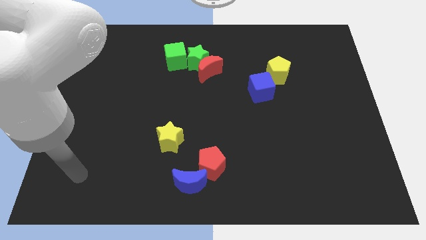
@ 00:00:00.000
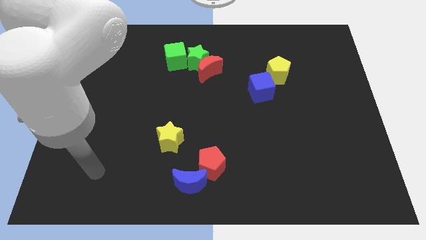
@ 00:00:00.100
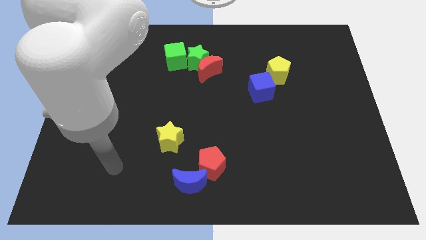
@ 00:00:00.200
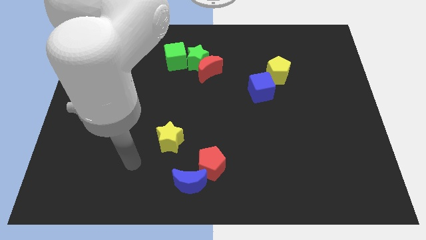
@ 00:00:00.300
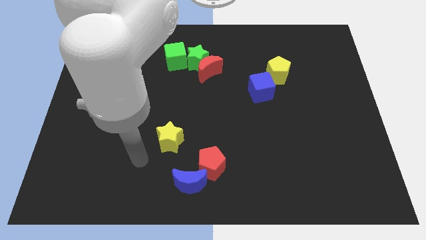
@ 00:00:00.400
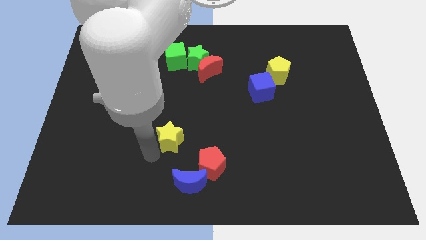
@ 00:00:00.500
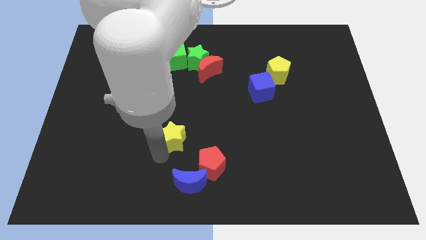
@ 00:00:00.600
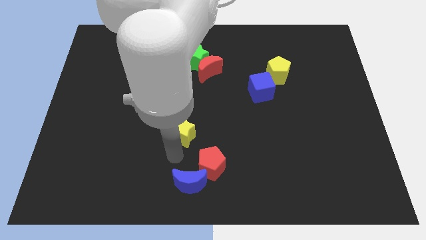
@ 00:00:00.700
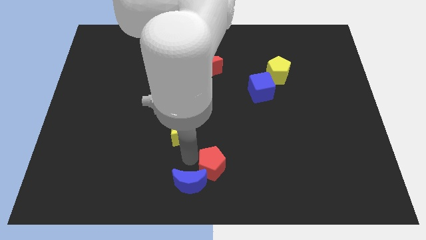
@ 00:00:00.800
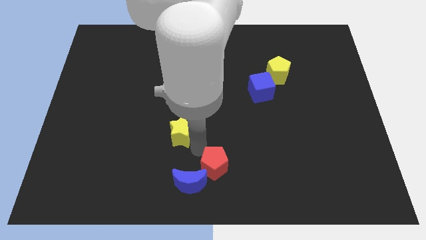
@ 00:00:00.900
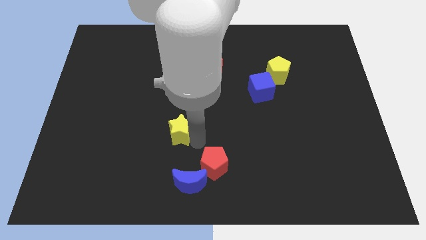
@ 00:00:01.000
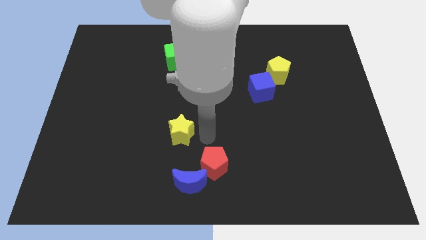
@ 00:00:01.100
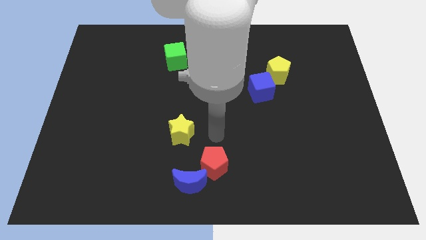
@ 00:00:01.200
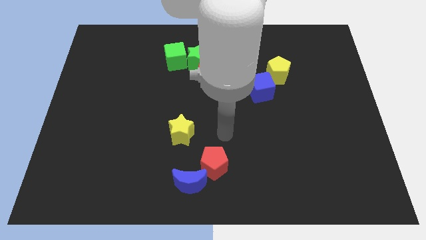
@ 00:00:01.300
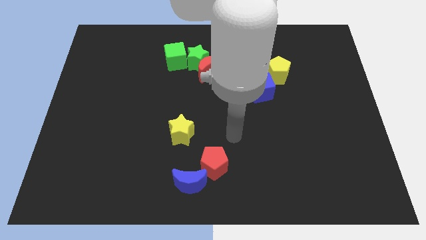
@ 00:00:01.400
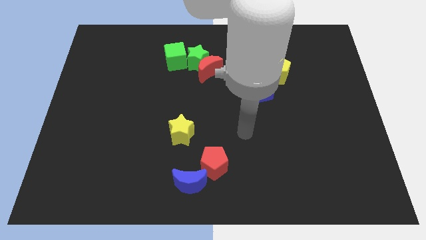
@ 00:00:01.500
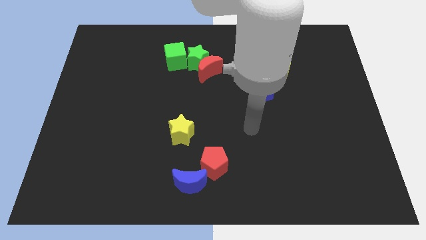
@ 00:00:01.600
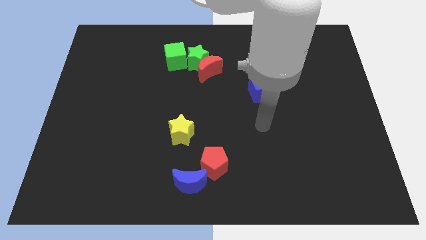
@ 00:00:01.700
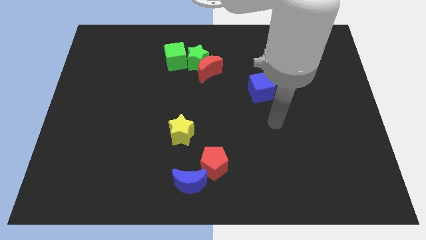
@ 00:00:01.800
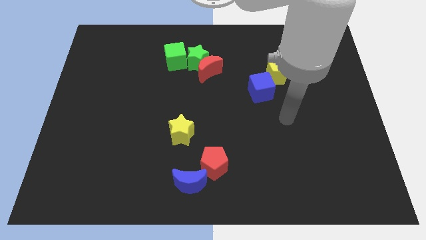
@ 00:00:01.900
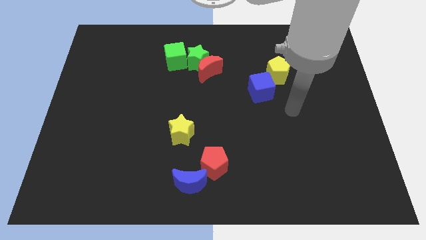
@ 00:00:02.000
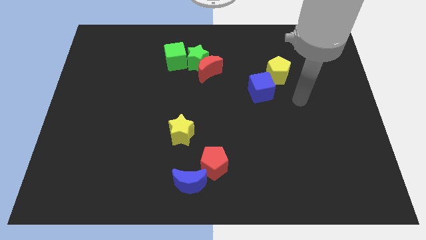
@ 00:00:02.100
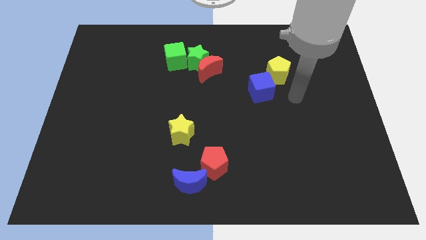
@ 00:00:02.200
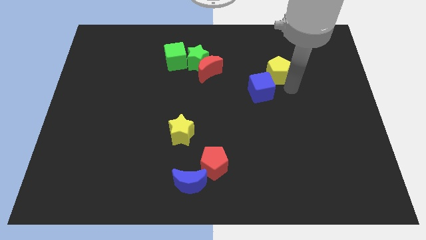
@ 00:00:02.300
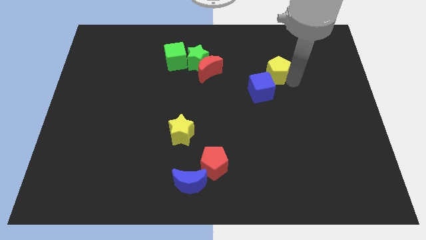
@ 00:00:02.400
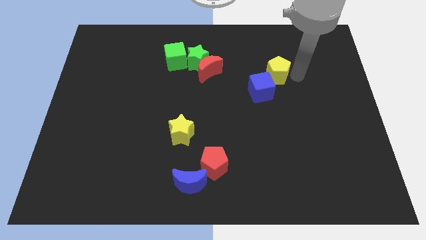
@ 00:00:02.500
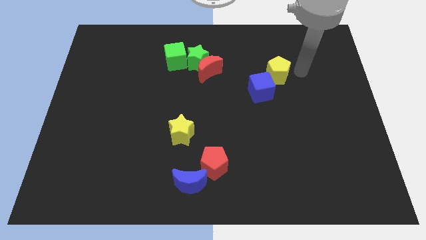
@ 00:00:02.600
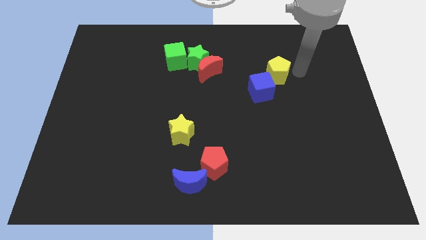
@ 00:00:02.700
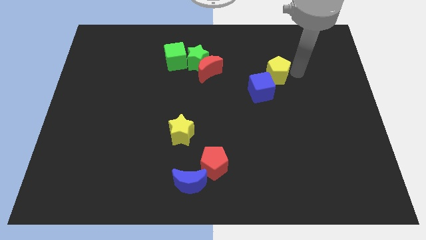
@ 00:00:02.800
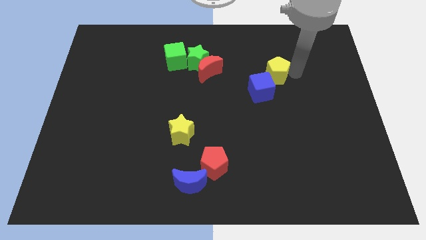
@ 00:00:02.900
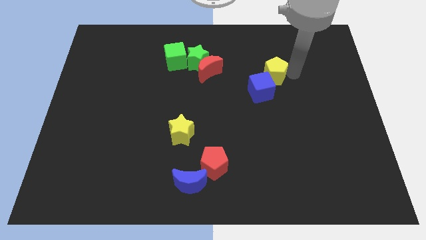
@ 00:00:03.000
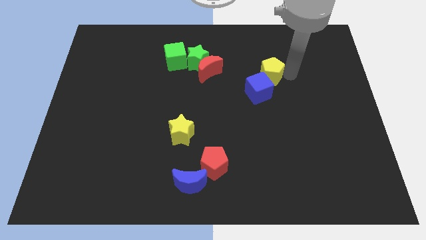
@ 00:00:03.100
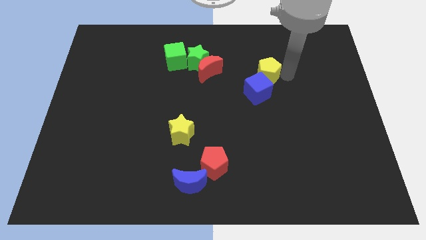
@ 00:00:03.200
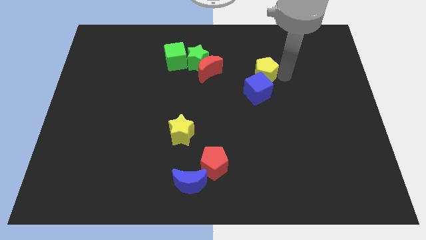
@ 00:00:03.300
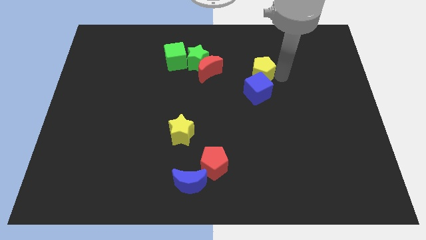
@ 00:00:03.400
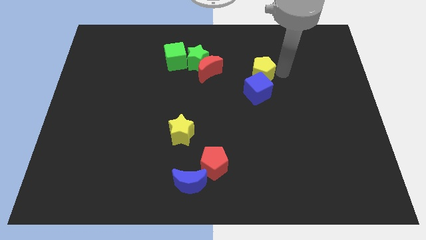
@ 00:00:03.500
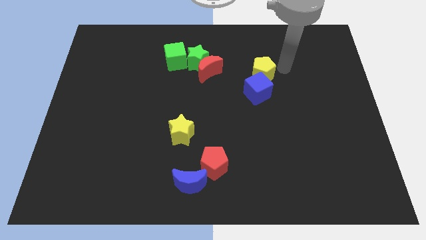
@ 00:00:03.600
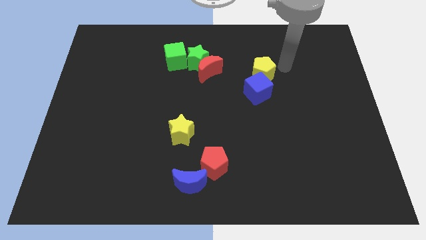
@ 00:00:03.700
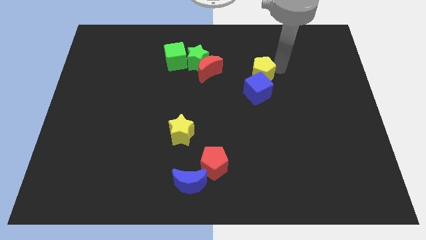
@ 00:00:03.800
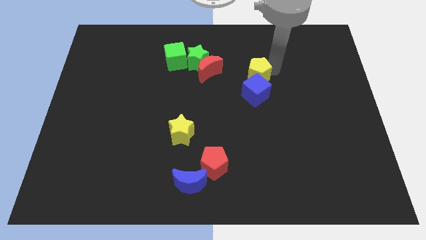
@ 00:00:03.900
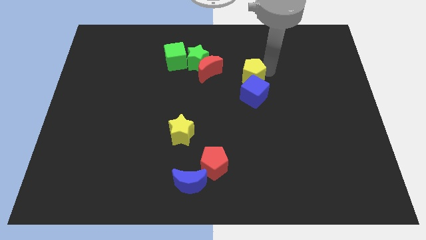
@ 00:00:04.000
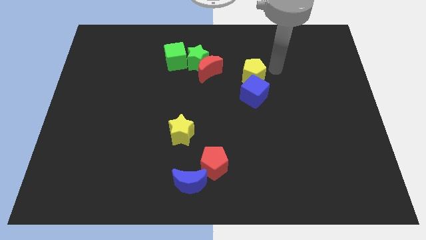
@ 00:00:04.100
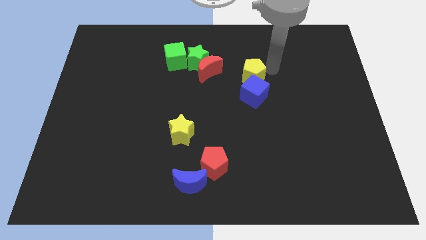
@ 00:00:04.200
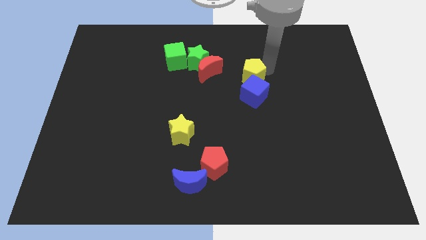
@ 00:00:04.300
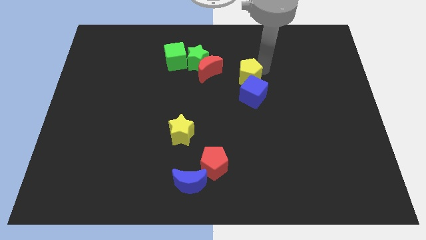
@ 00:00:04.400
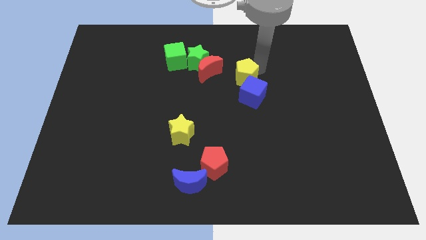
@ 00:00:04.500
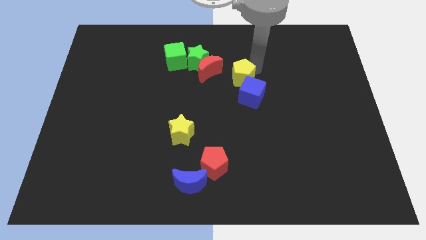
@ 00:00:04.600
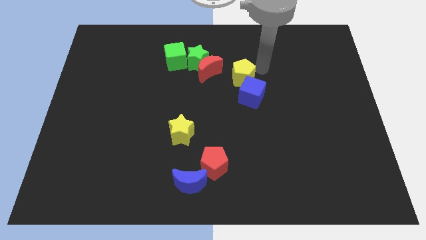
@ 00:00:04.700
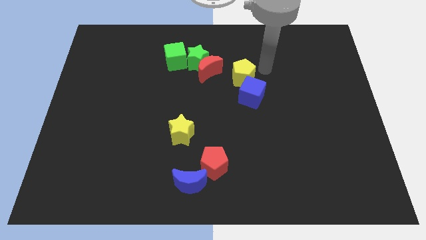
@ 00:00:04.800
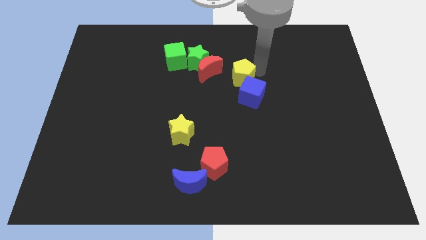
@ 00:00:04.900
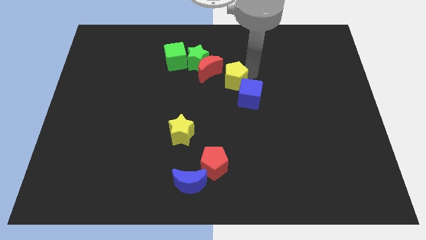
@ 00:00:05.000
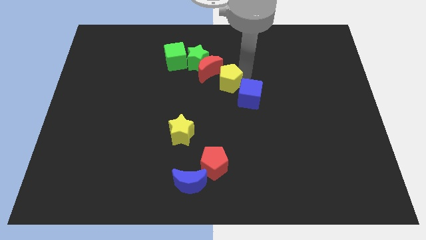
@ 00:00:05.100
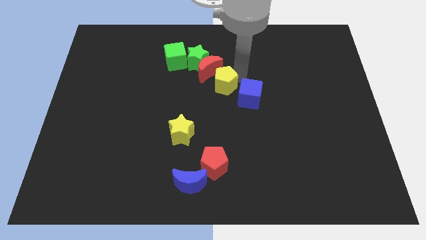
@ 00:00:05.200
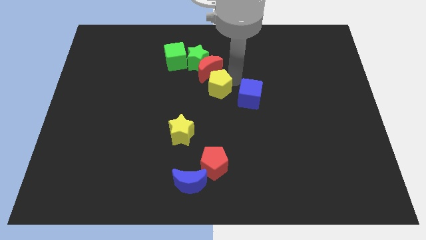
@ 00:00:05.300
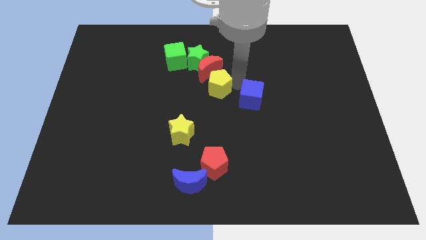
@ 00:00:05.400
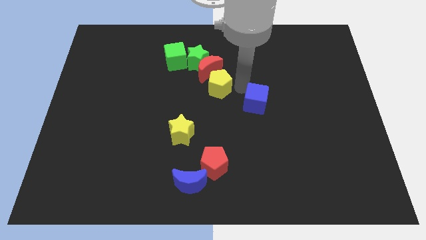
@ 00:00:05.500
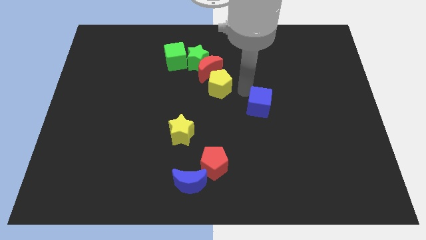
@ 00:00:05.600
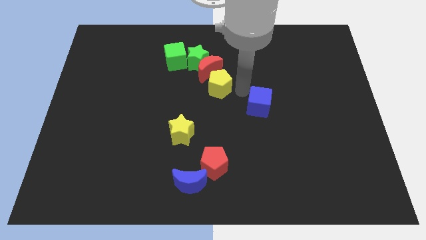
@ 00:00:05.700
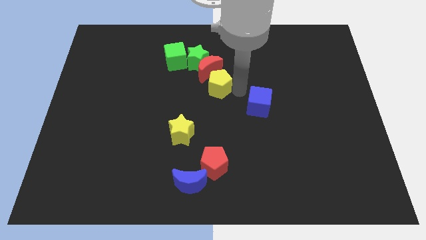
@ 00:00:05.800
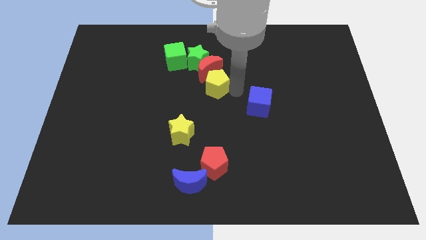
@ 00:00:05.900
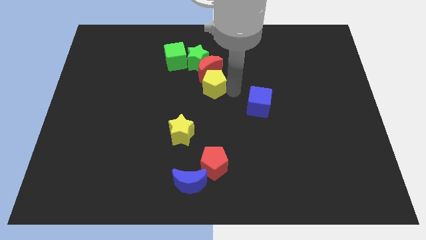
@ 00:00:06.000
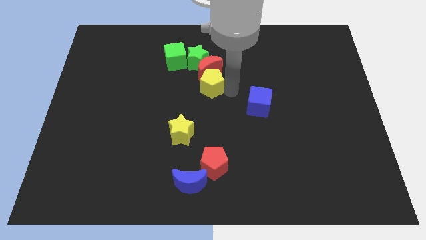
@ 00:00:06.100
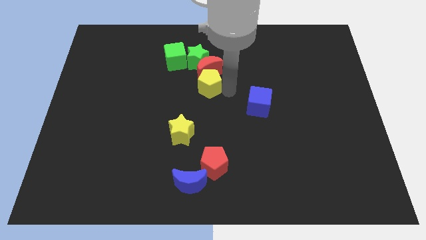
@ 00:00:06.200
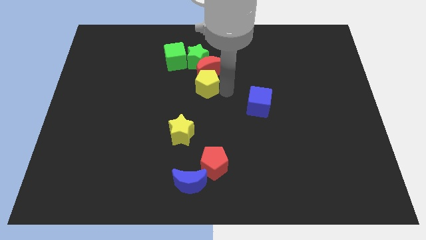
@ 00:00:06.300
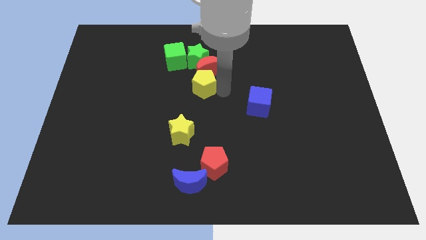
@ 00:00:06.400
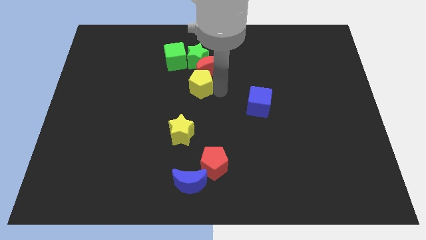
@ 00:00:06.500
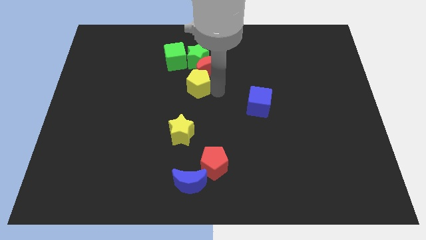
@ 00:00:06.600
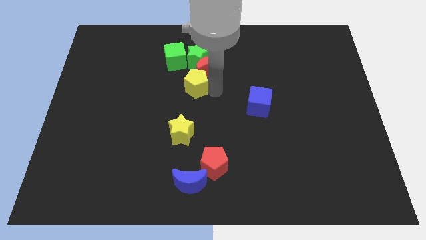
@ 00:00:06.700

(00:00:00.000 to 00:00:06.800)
slide the yellow pentagon to the left

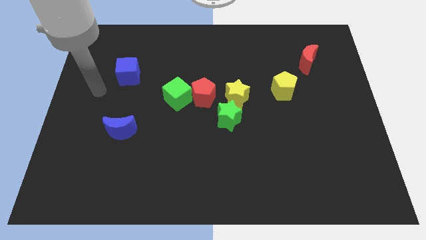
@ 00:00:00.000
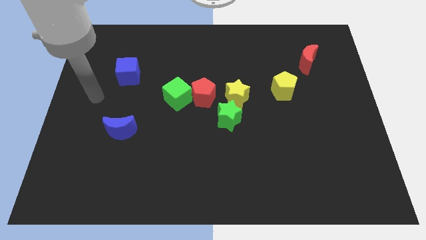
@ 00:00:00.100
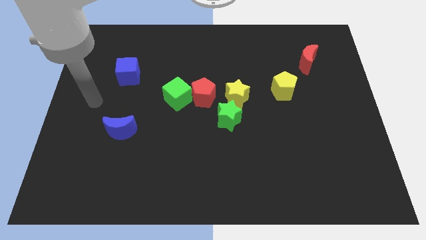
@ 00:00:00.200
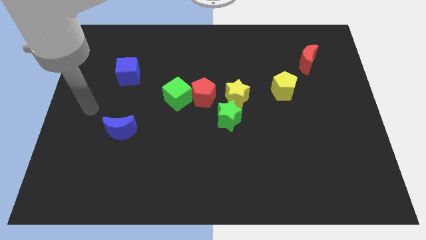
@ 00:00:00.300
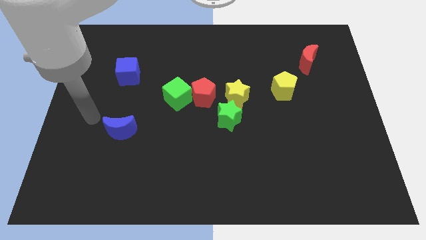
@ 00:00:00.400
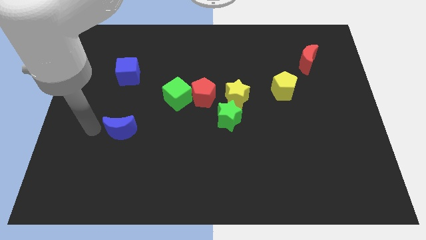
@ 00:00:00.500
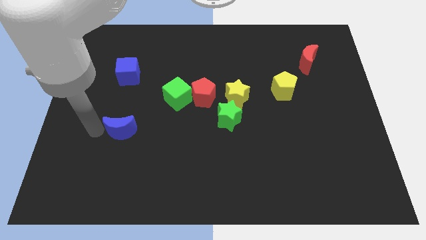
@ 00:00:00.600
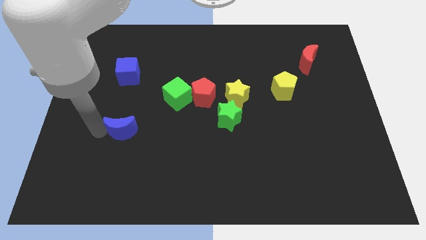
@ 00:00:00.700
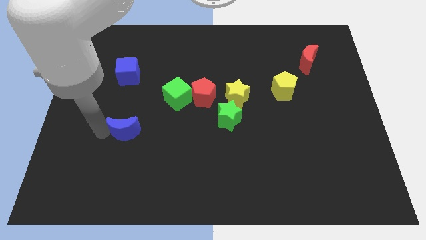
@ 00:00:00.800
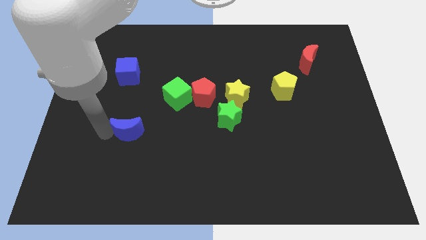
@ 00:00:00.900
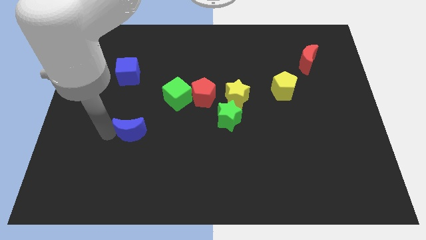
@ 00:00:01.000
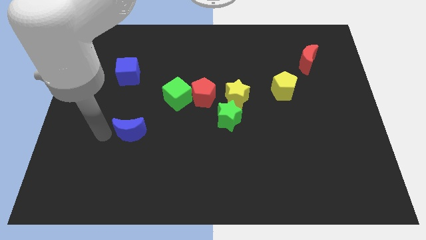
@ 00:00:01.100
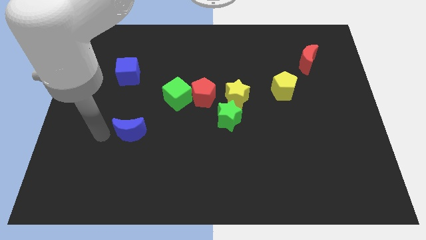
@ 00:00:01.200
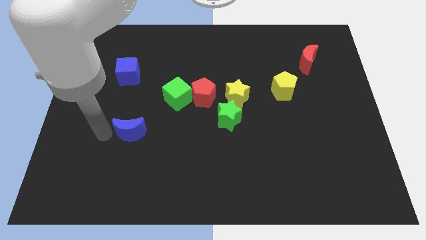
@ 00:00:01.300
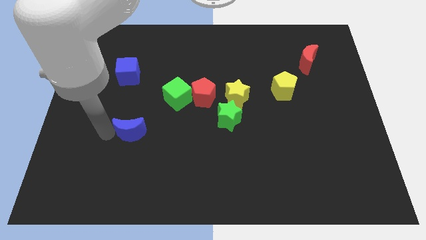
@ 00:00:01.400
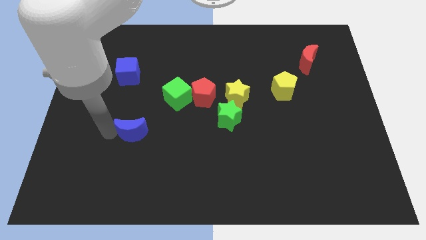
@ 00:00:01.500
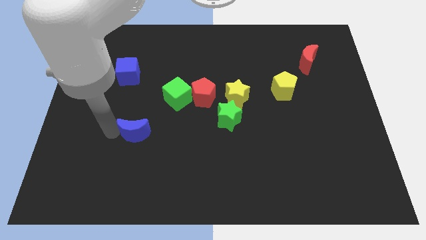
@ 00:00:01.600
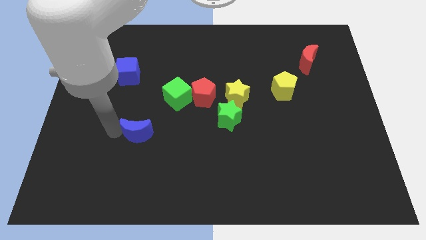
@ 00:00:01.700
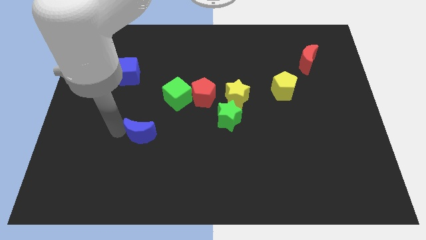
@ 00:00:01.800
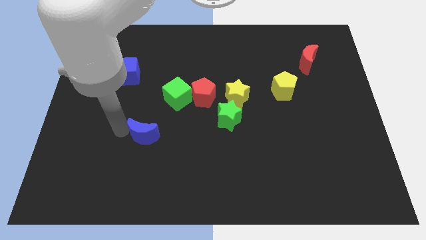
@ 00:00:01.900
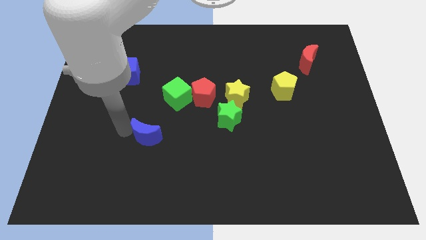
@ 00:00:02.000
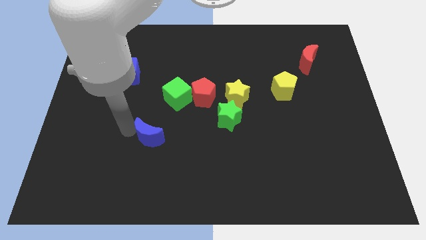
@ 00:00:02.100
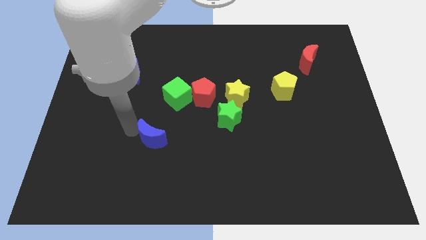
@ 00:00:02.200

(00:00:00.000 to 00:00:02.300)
slide the blue moon slightly to the right
